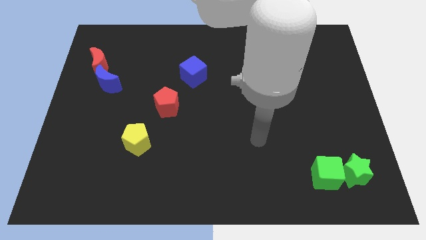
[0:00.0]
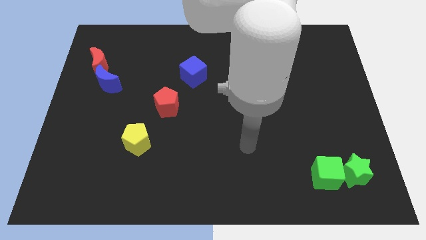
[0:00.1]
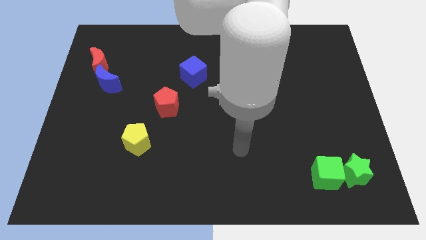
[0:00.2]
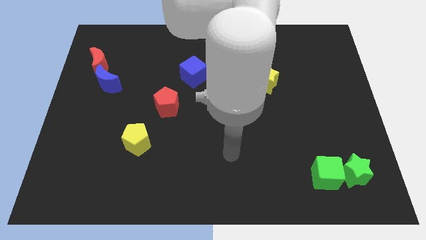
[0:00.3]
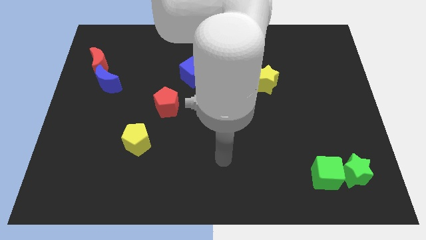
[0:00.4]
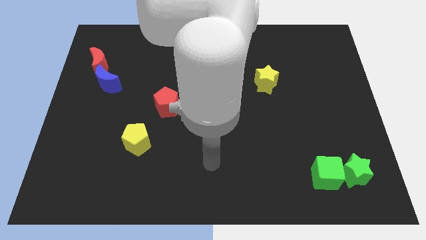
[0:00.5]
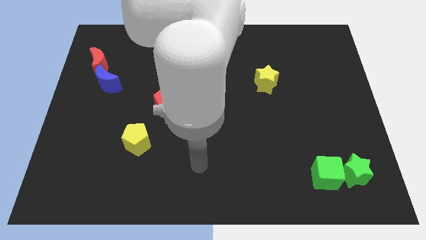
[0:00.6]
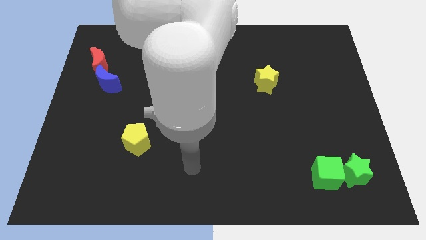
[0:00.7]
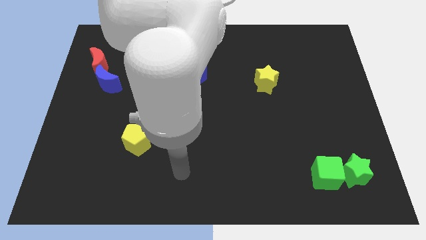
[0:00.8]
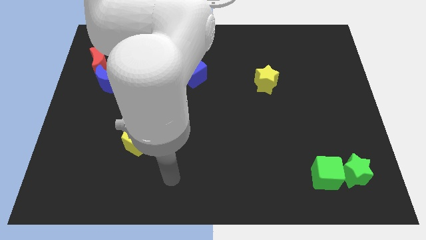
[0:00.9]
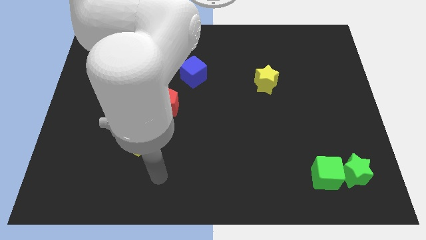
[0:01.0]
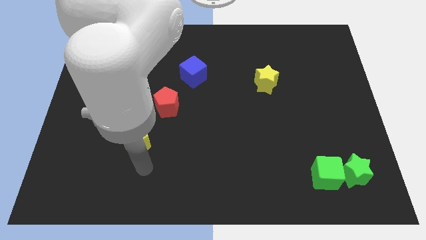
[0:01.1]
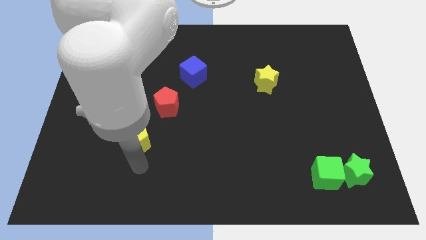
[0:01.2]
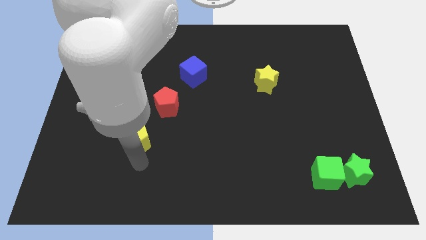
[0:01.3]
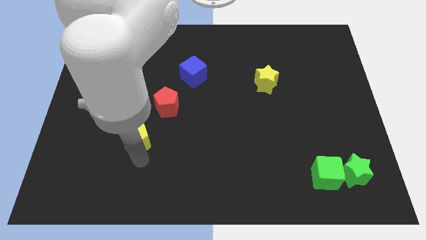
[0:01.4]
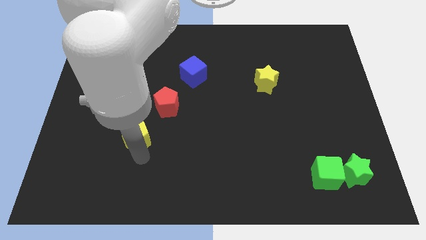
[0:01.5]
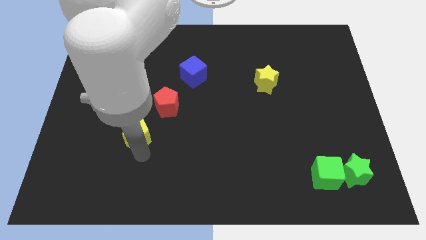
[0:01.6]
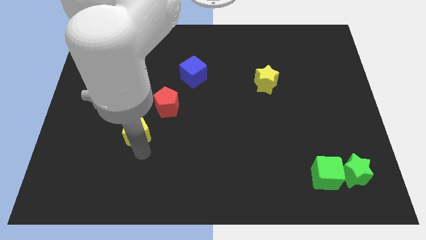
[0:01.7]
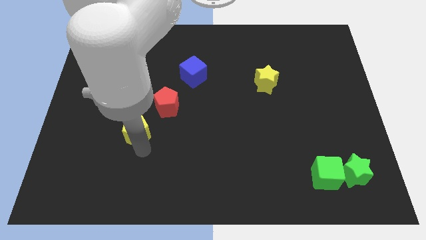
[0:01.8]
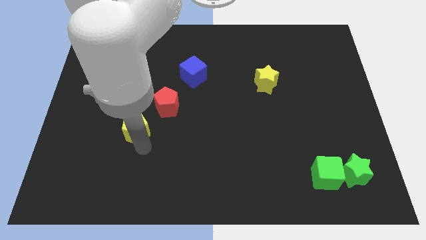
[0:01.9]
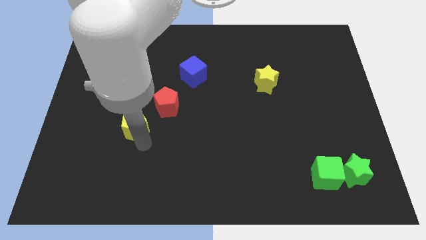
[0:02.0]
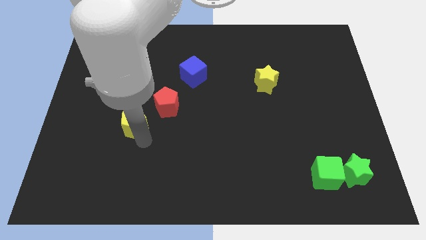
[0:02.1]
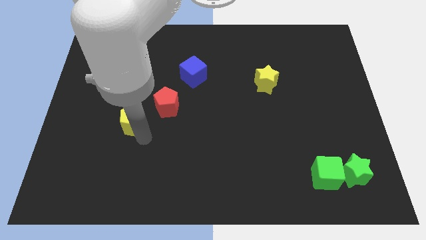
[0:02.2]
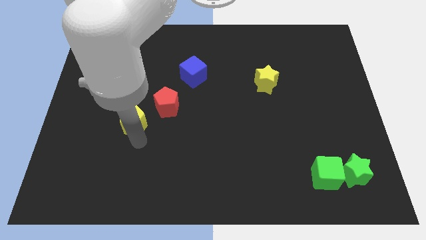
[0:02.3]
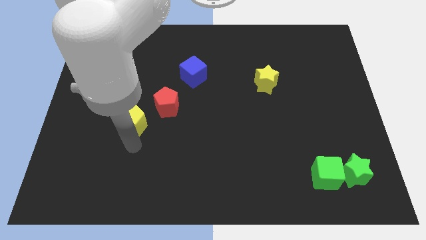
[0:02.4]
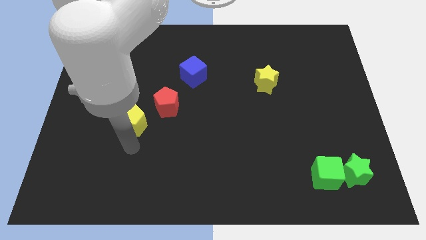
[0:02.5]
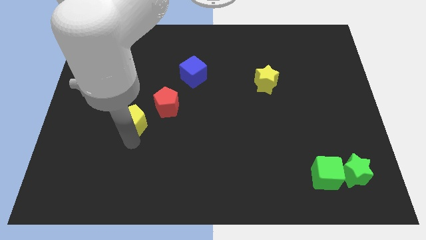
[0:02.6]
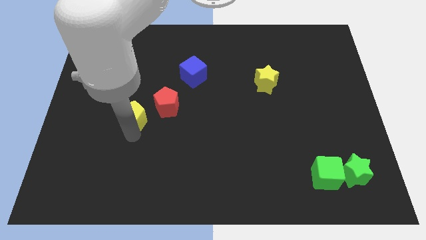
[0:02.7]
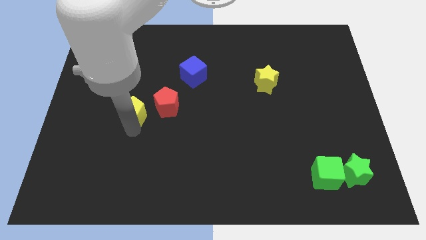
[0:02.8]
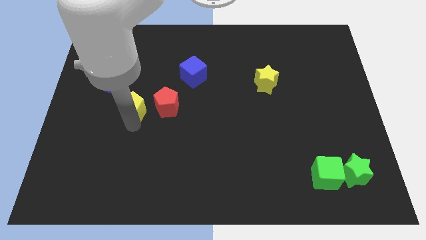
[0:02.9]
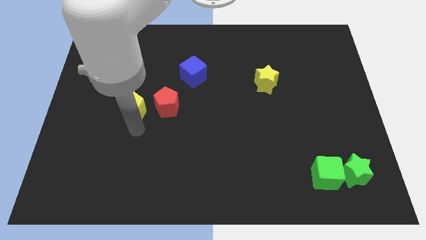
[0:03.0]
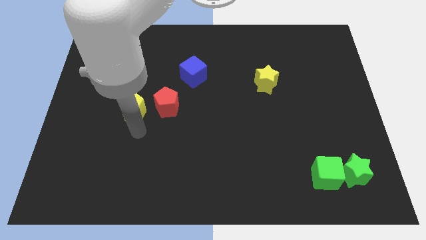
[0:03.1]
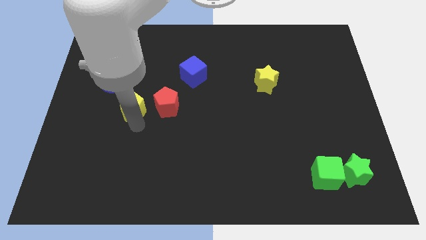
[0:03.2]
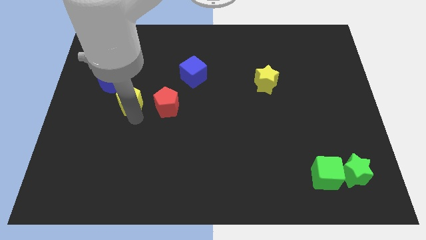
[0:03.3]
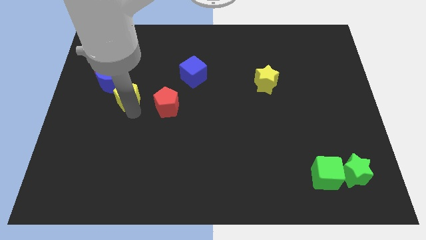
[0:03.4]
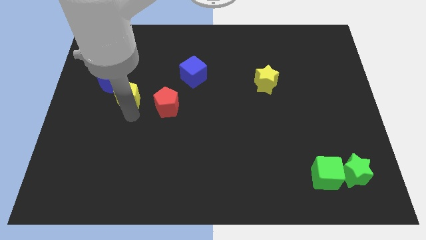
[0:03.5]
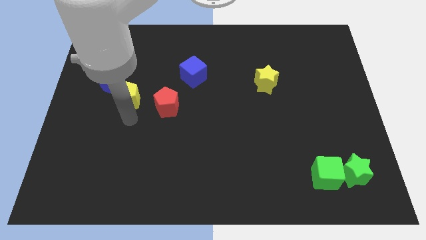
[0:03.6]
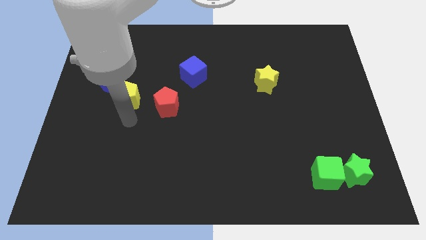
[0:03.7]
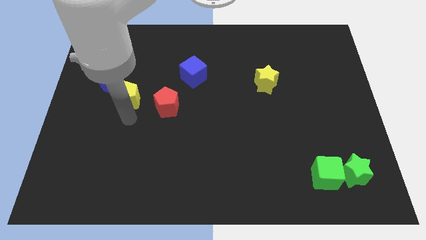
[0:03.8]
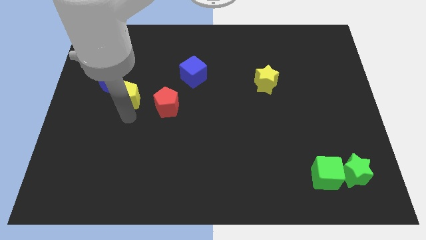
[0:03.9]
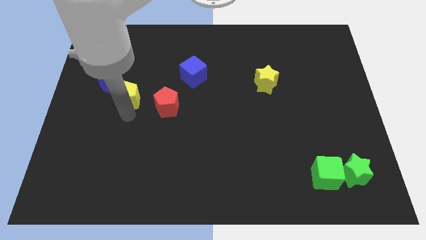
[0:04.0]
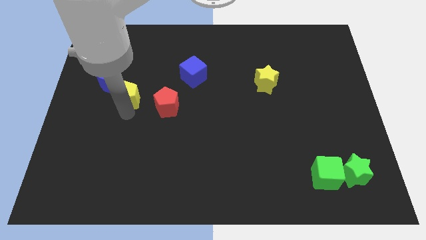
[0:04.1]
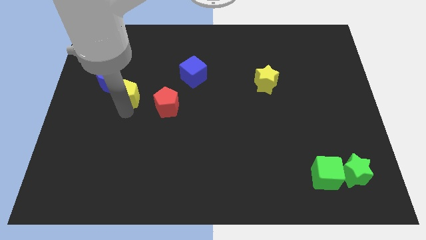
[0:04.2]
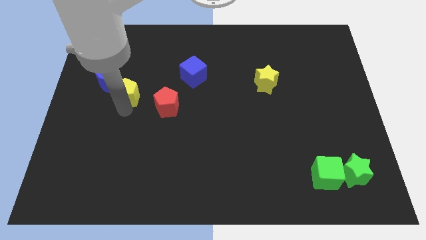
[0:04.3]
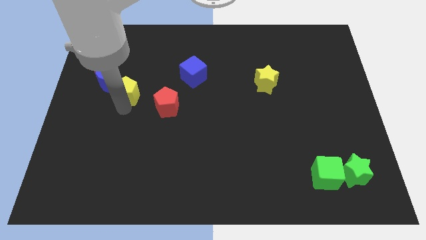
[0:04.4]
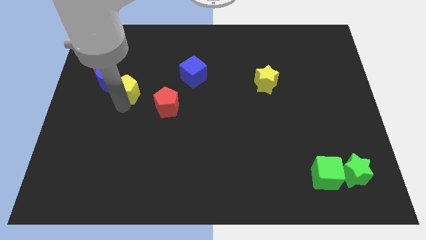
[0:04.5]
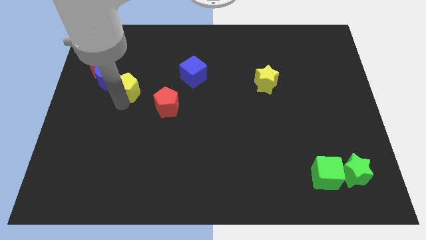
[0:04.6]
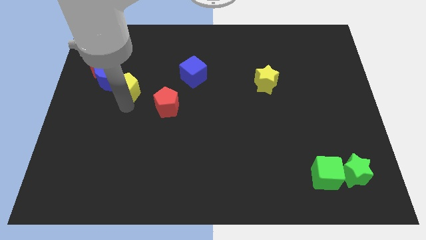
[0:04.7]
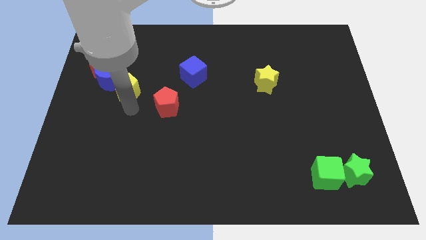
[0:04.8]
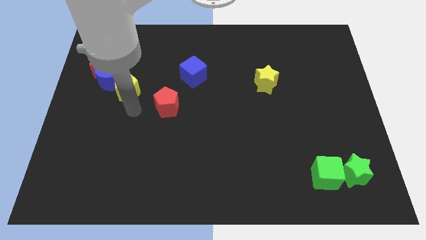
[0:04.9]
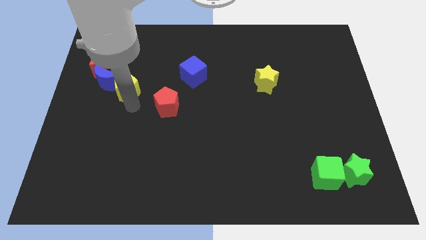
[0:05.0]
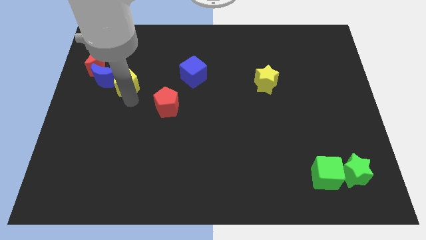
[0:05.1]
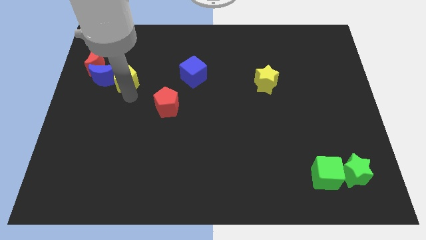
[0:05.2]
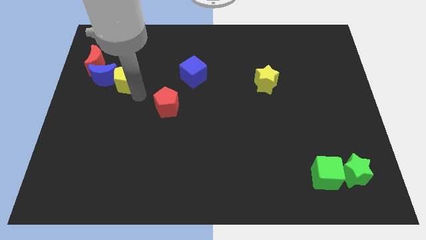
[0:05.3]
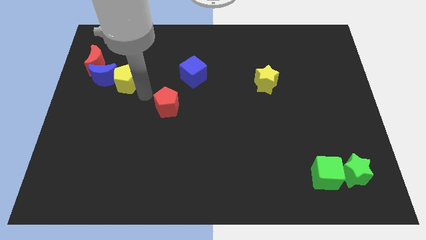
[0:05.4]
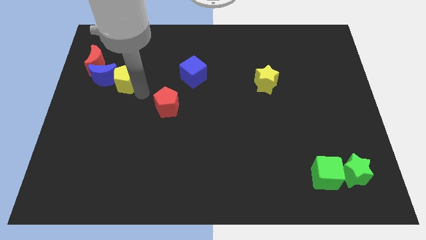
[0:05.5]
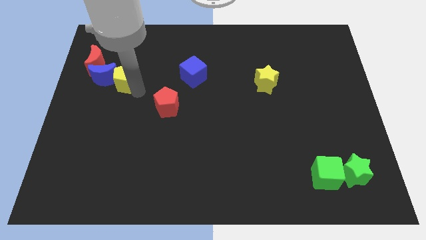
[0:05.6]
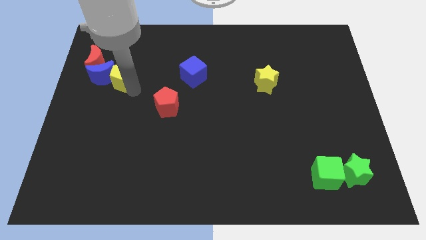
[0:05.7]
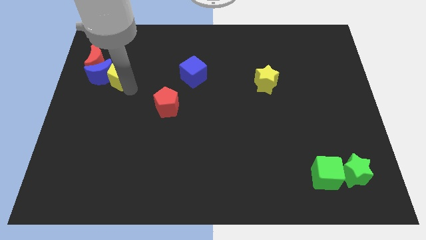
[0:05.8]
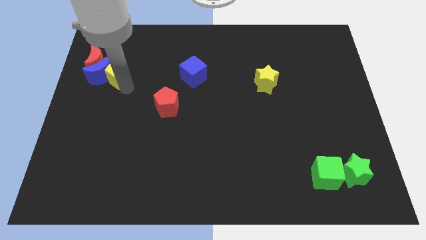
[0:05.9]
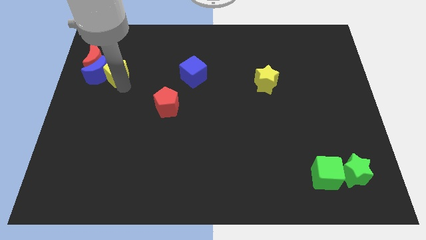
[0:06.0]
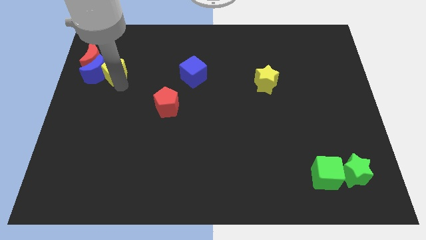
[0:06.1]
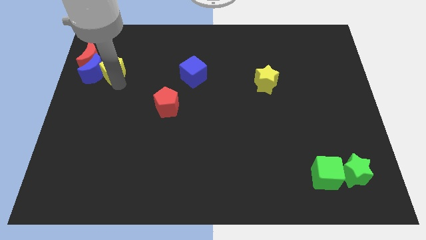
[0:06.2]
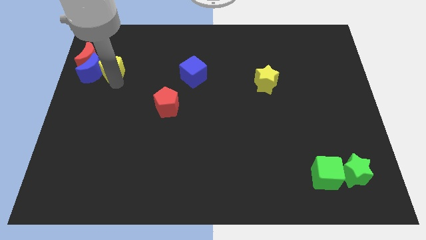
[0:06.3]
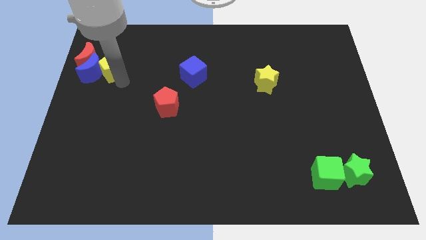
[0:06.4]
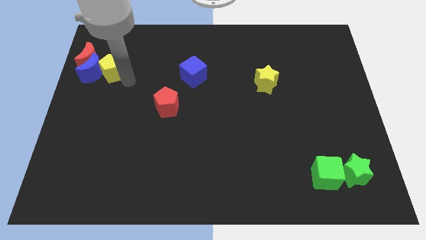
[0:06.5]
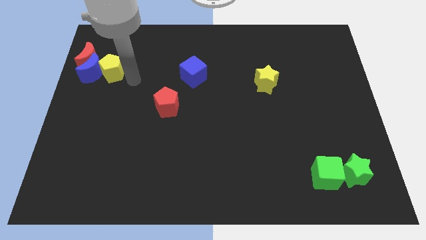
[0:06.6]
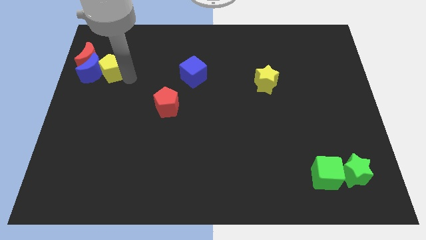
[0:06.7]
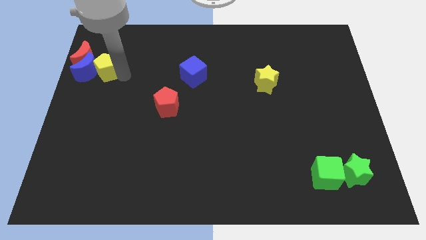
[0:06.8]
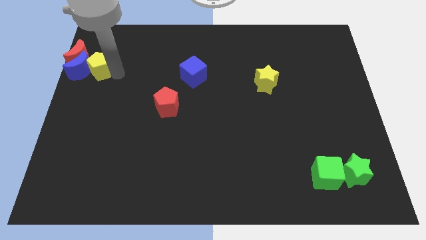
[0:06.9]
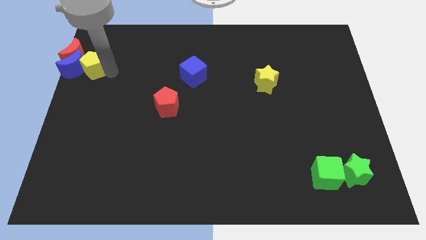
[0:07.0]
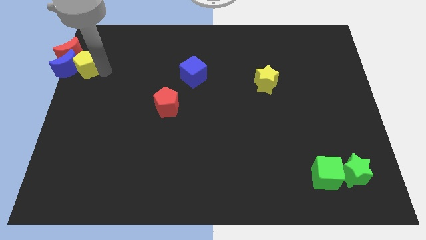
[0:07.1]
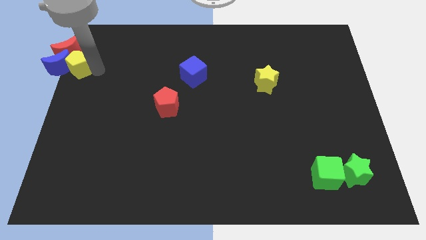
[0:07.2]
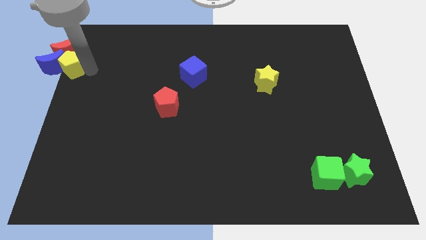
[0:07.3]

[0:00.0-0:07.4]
push the yellow pentagon to the red moon
